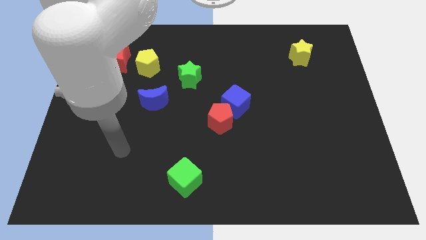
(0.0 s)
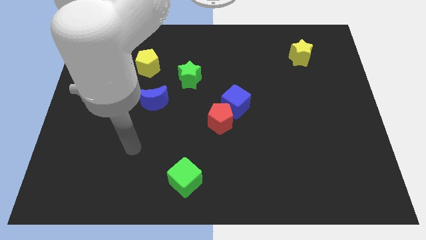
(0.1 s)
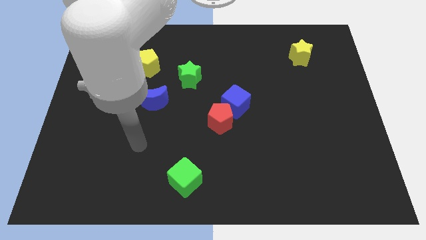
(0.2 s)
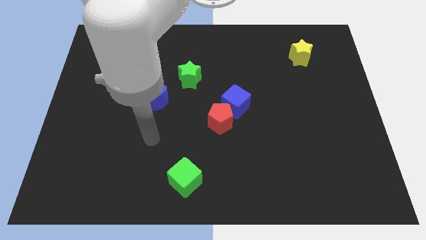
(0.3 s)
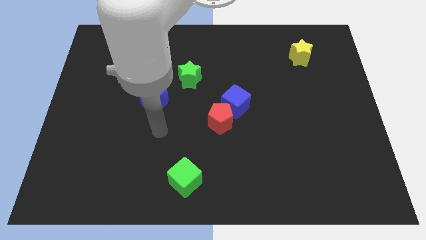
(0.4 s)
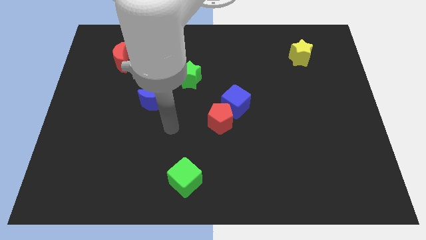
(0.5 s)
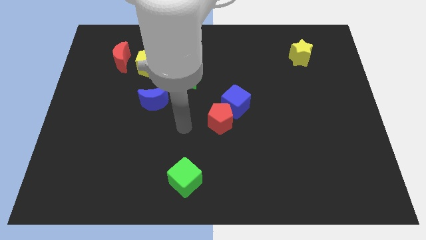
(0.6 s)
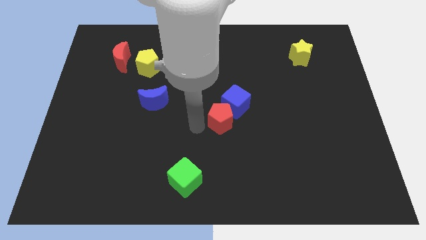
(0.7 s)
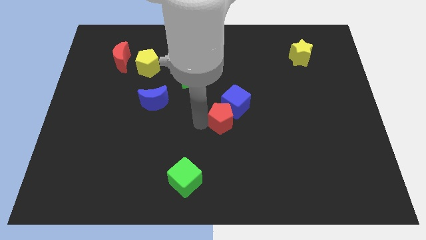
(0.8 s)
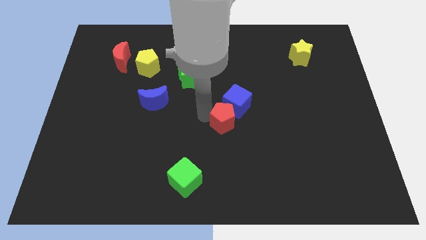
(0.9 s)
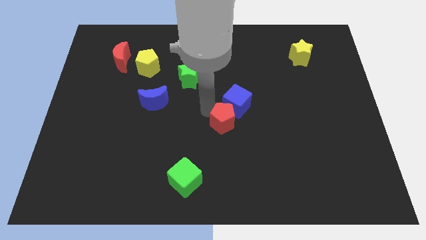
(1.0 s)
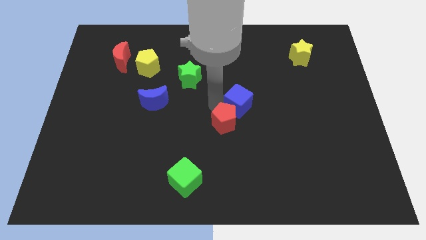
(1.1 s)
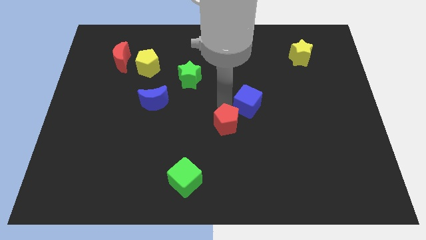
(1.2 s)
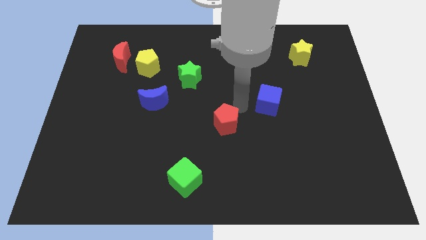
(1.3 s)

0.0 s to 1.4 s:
move the red pentagon away from the blue cube

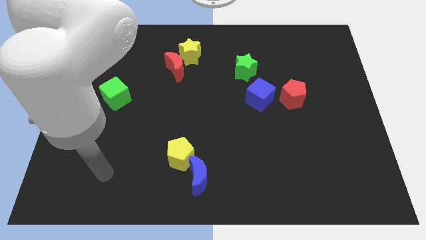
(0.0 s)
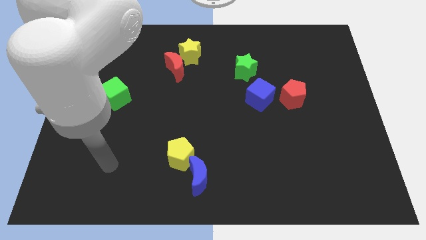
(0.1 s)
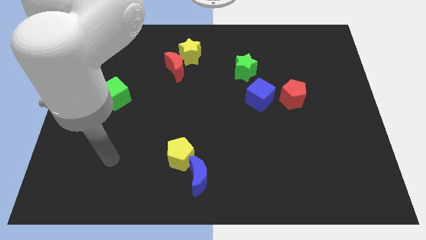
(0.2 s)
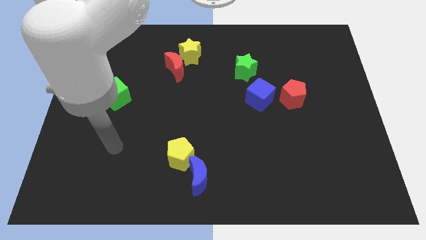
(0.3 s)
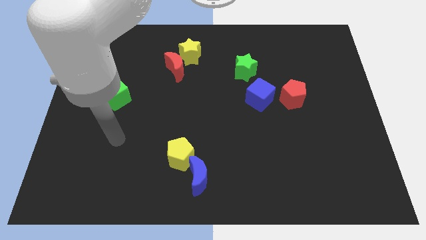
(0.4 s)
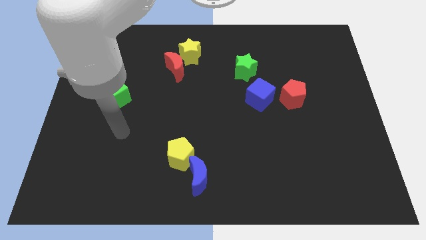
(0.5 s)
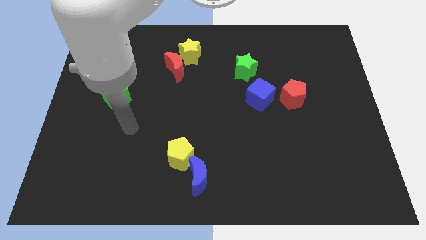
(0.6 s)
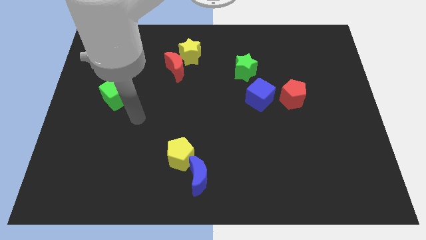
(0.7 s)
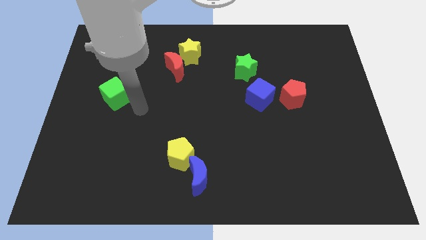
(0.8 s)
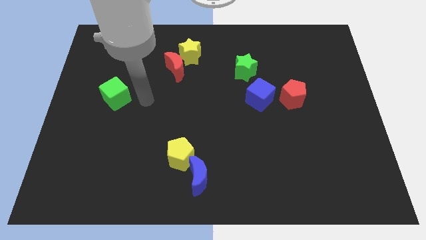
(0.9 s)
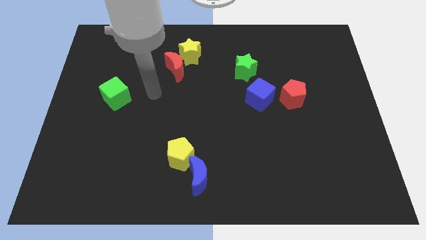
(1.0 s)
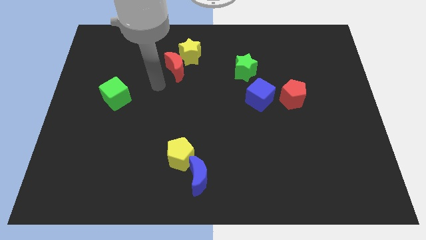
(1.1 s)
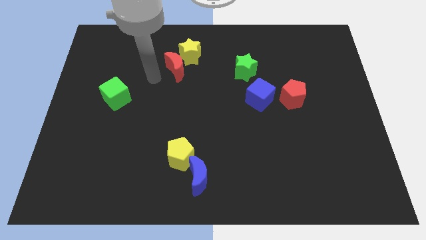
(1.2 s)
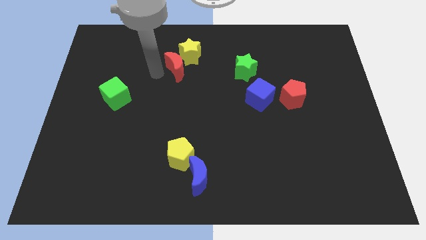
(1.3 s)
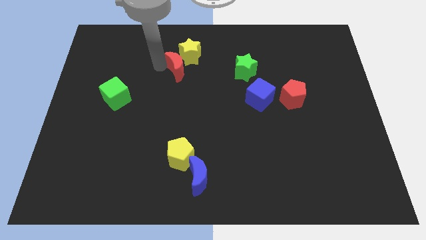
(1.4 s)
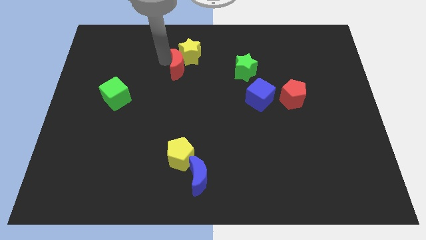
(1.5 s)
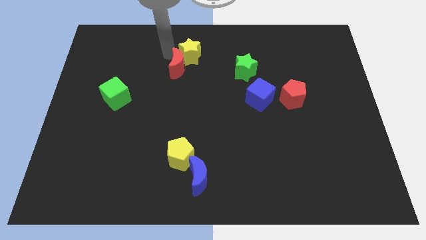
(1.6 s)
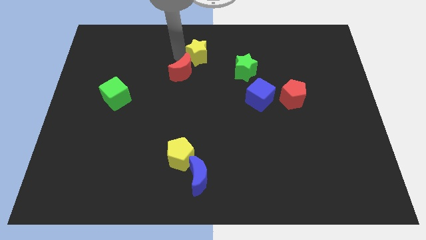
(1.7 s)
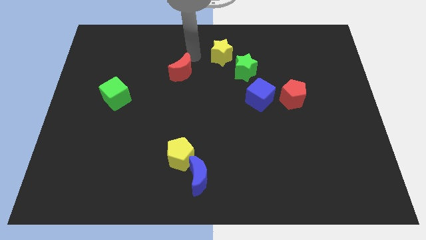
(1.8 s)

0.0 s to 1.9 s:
pull the red moon apart from the yellow star

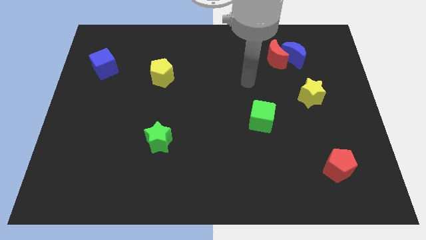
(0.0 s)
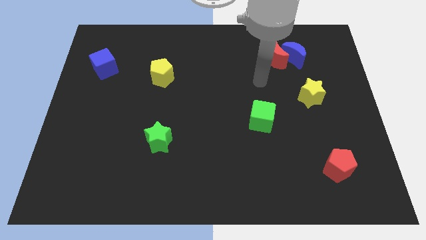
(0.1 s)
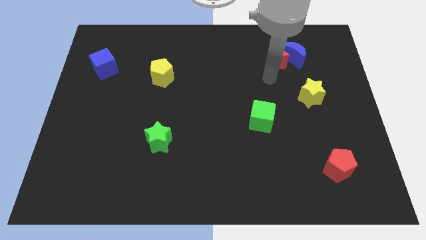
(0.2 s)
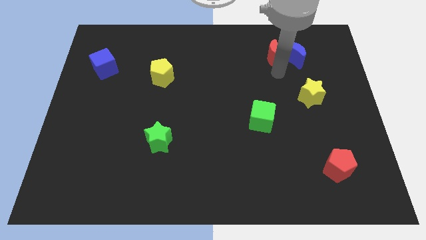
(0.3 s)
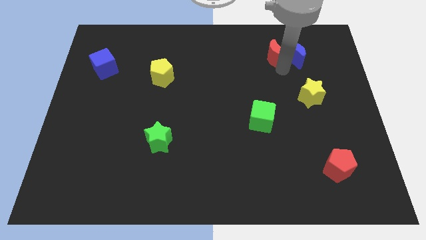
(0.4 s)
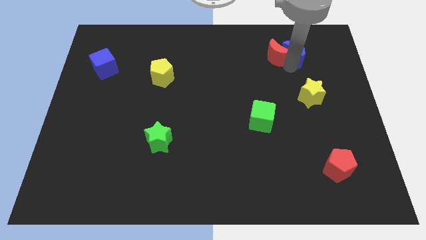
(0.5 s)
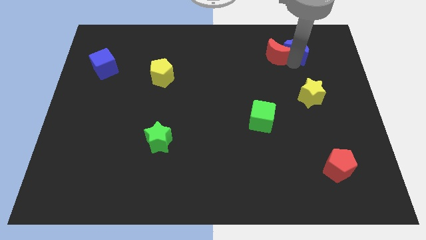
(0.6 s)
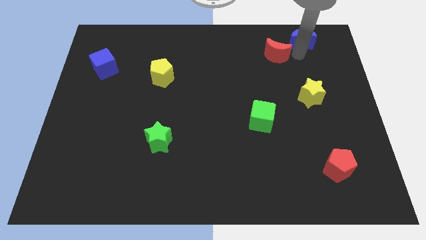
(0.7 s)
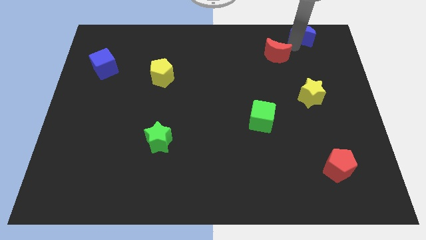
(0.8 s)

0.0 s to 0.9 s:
move the red moon away from the blue moon

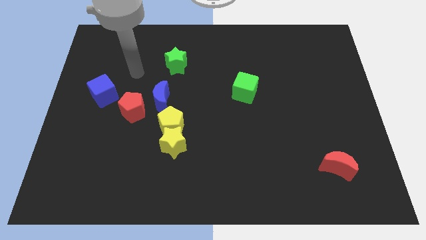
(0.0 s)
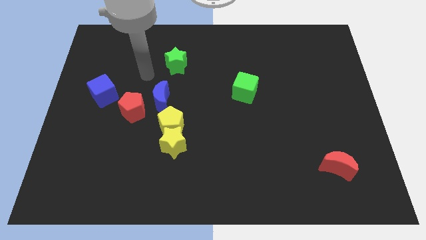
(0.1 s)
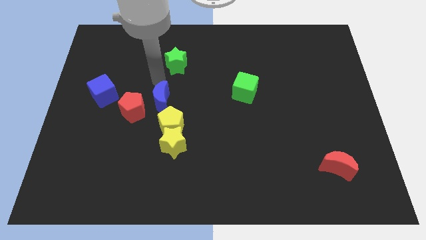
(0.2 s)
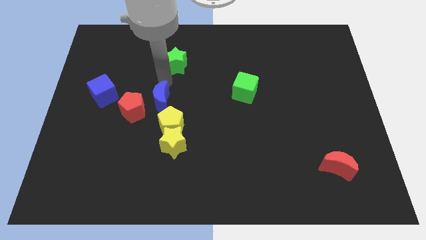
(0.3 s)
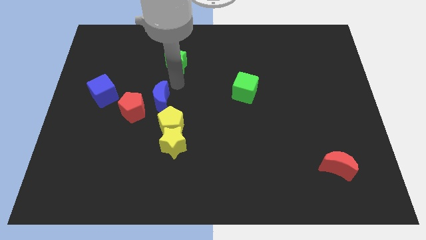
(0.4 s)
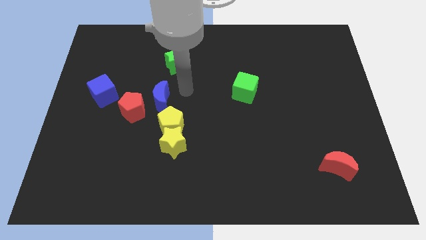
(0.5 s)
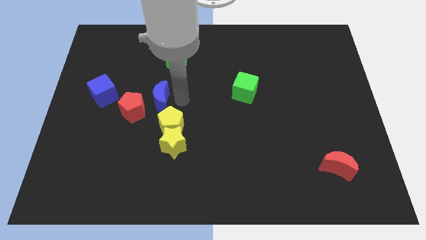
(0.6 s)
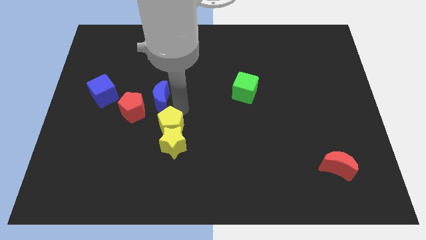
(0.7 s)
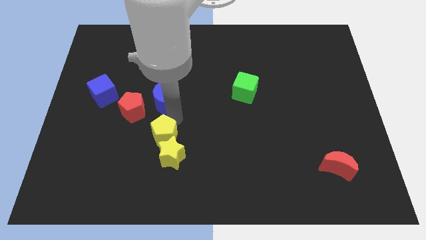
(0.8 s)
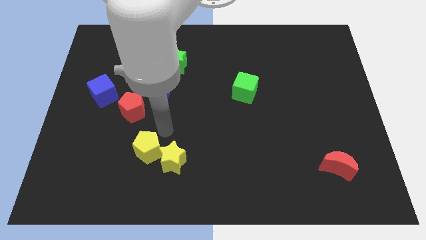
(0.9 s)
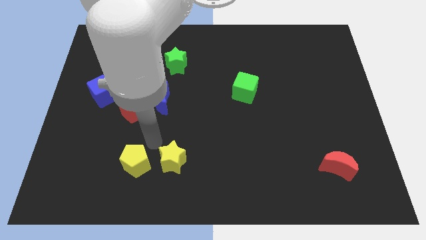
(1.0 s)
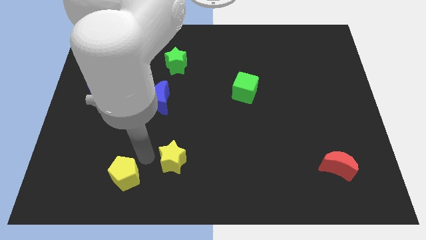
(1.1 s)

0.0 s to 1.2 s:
pull the yellow star apart from the yellow pentagon

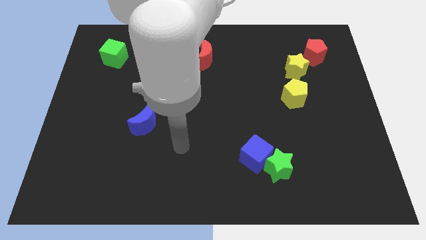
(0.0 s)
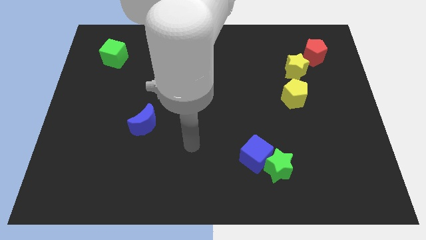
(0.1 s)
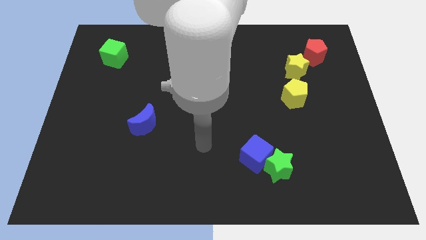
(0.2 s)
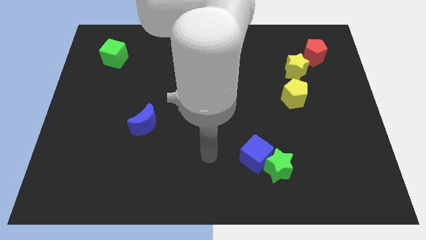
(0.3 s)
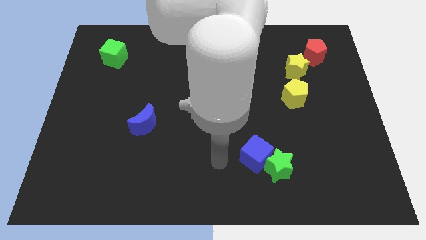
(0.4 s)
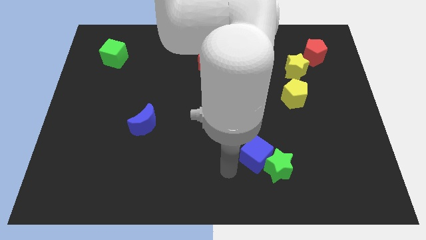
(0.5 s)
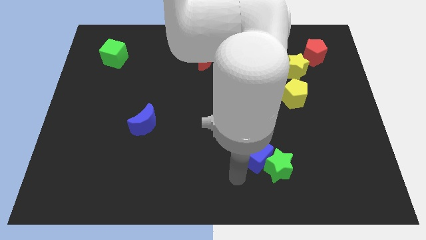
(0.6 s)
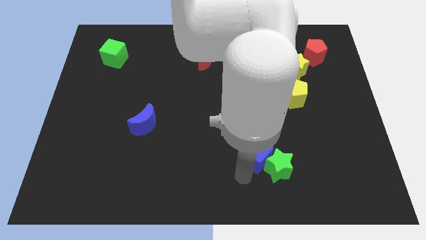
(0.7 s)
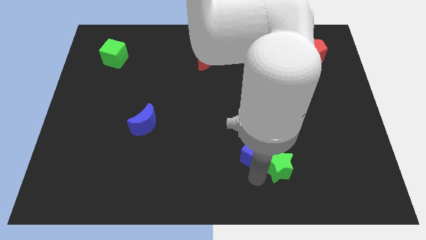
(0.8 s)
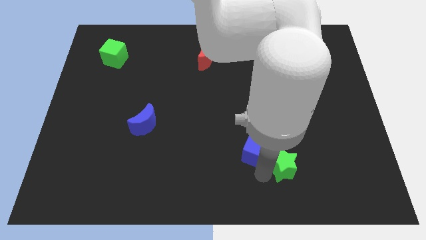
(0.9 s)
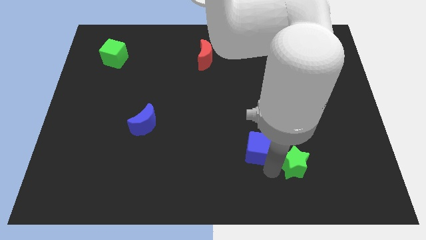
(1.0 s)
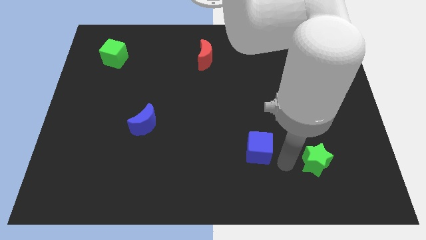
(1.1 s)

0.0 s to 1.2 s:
separate the blue cube from the green star

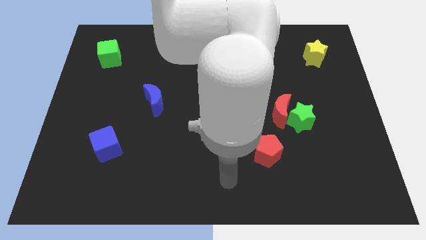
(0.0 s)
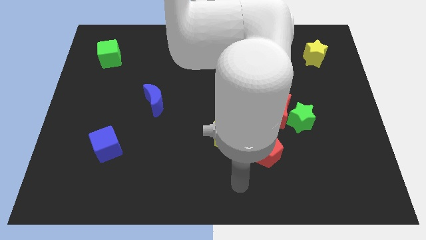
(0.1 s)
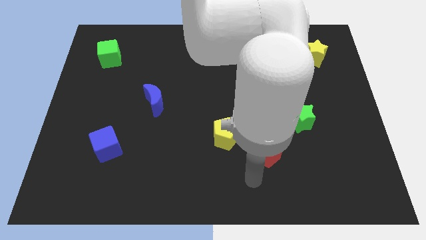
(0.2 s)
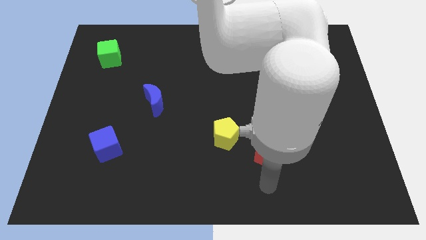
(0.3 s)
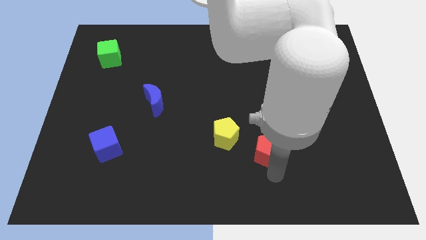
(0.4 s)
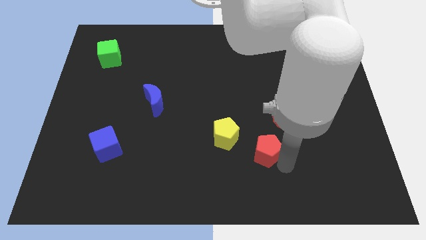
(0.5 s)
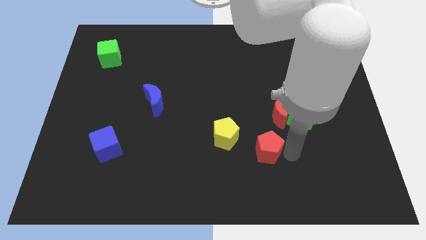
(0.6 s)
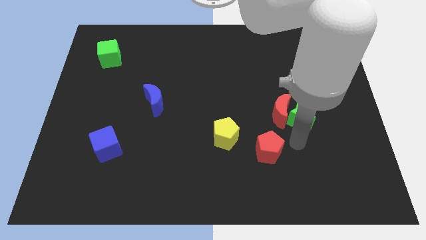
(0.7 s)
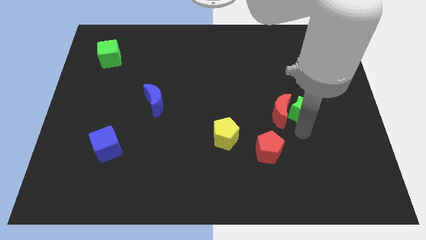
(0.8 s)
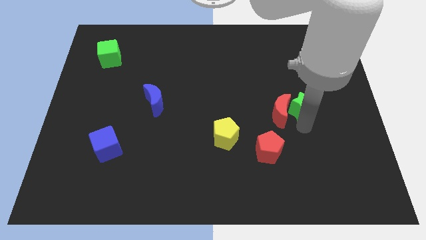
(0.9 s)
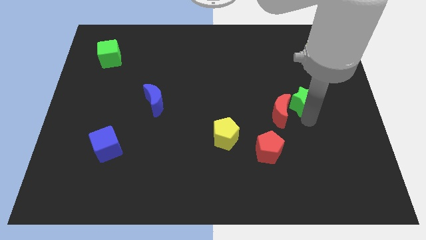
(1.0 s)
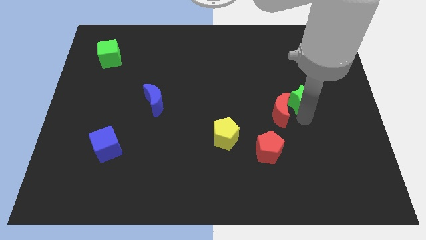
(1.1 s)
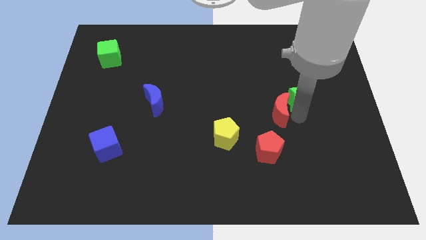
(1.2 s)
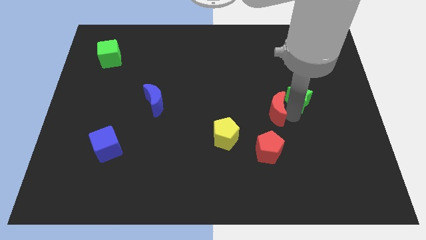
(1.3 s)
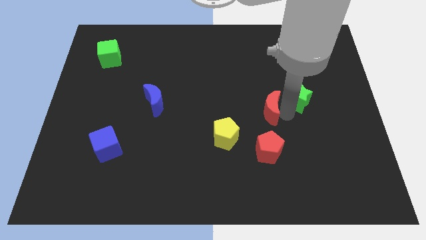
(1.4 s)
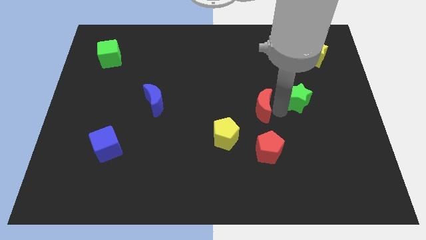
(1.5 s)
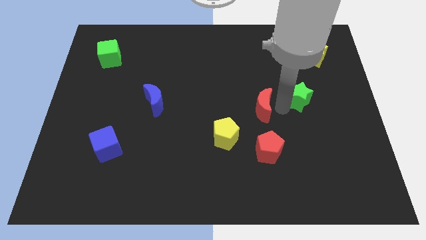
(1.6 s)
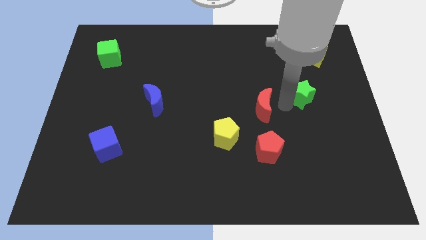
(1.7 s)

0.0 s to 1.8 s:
separate the red moon from the green star

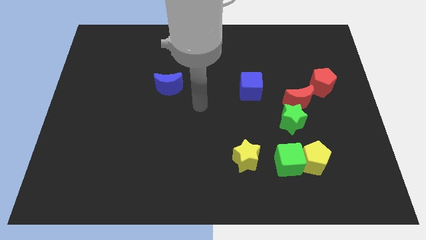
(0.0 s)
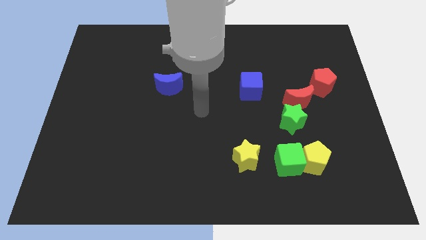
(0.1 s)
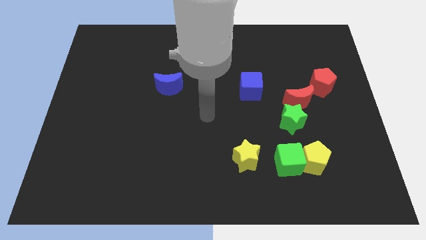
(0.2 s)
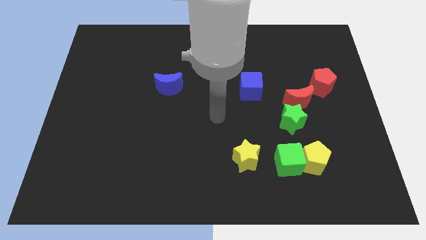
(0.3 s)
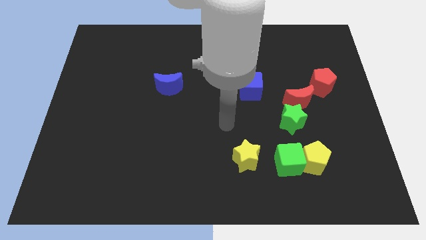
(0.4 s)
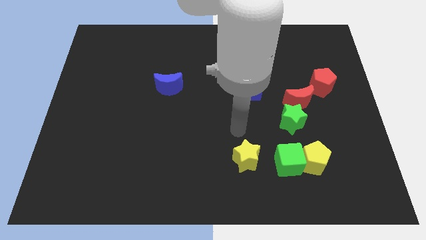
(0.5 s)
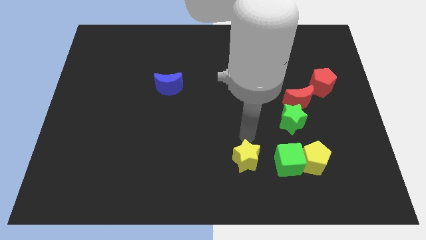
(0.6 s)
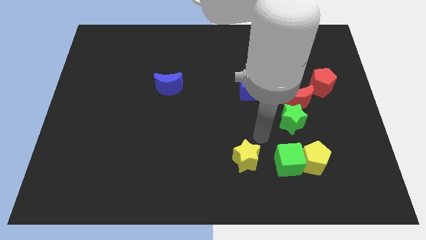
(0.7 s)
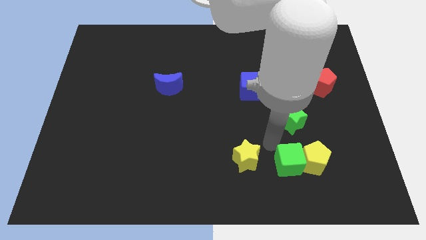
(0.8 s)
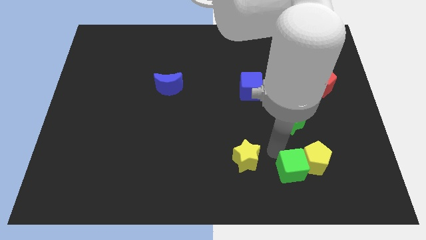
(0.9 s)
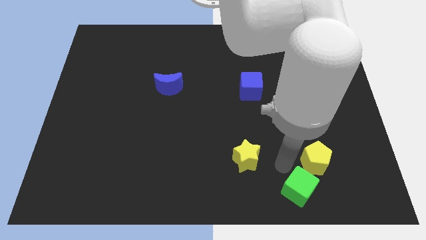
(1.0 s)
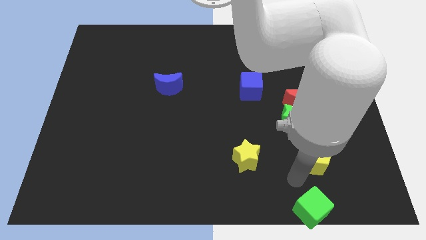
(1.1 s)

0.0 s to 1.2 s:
pull the yellow pentagon apart from the green cube
